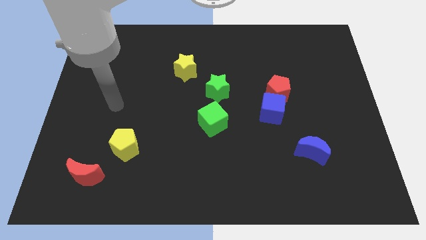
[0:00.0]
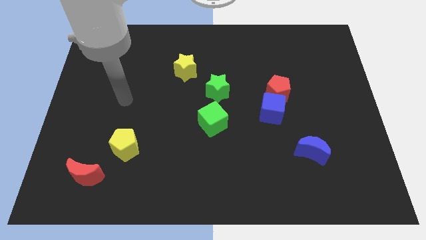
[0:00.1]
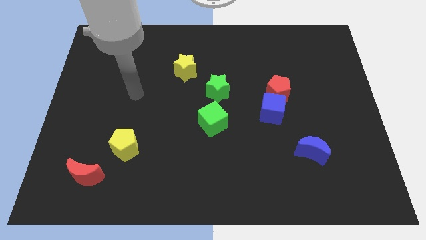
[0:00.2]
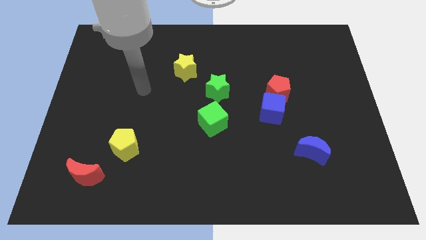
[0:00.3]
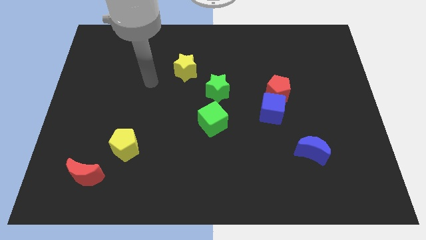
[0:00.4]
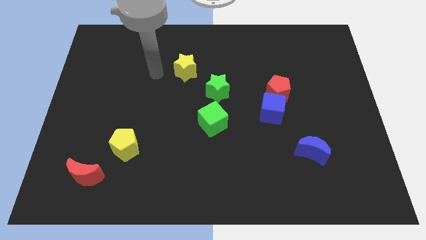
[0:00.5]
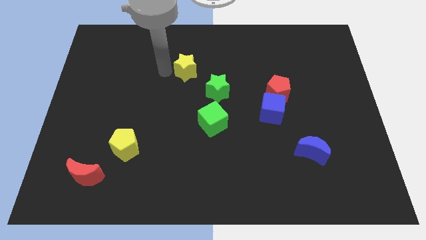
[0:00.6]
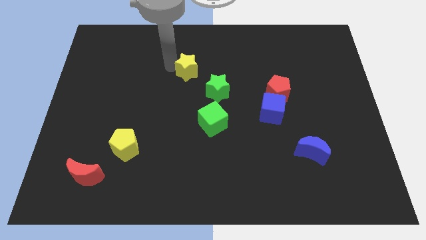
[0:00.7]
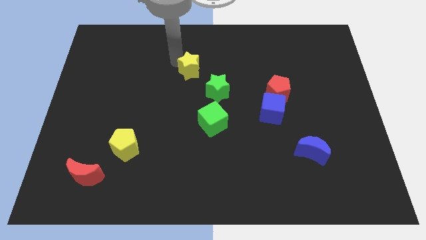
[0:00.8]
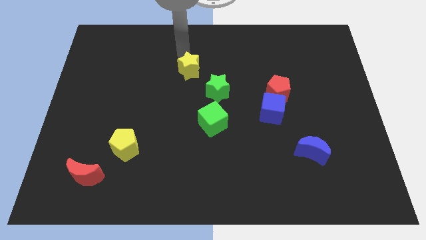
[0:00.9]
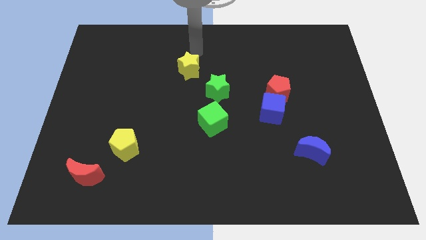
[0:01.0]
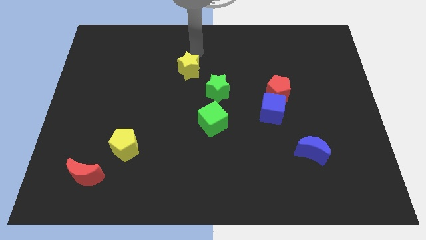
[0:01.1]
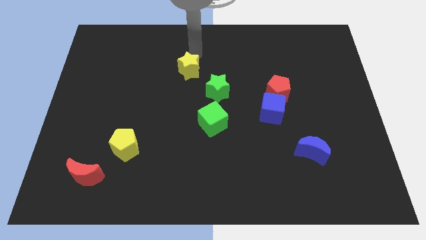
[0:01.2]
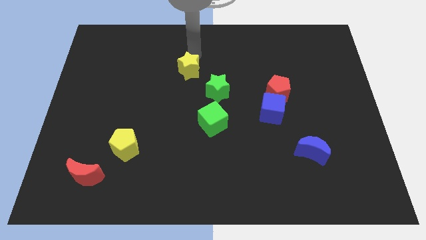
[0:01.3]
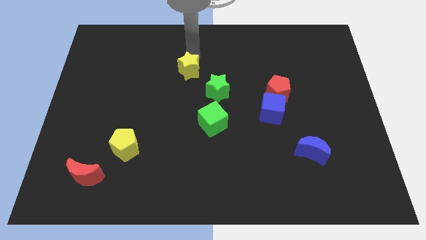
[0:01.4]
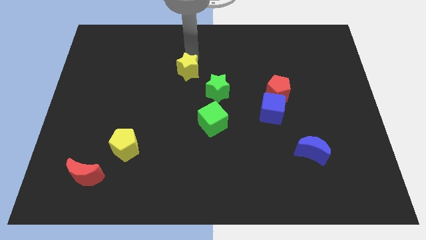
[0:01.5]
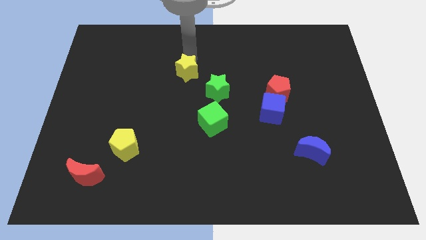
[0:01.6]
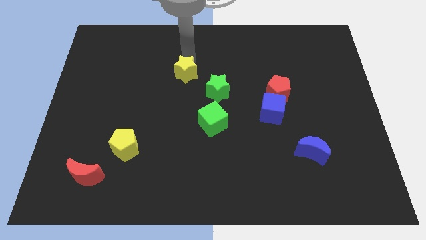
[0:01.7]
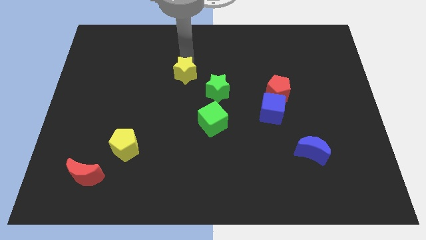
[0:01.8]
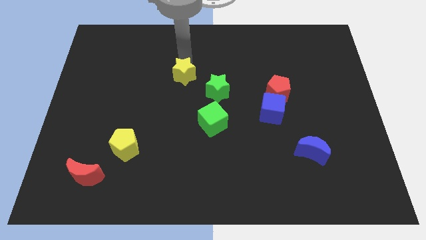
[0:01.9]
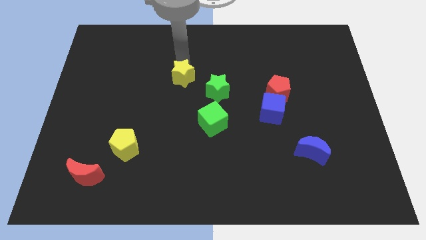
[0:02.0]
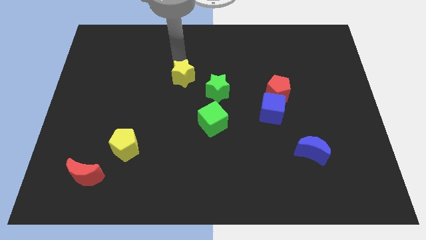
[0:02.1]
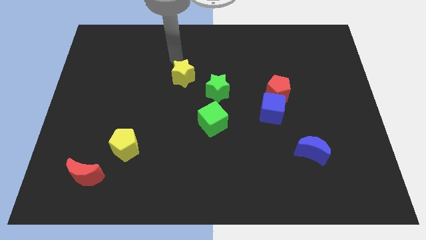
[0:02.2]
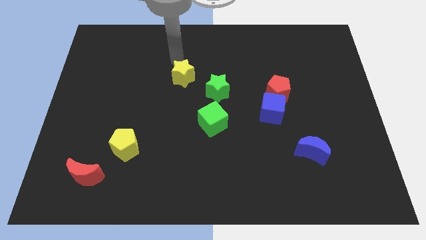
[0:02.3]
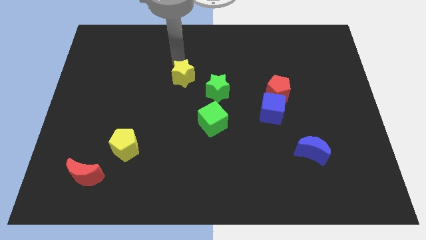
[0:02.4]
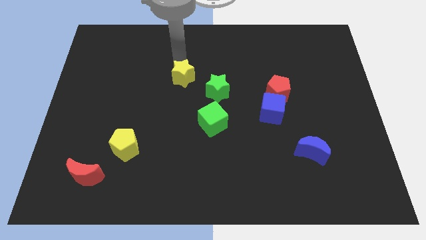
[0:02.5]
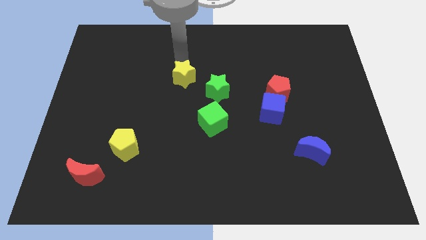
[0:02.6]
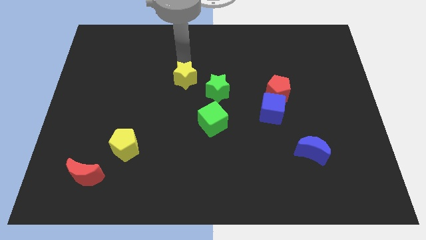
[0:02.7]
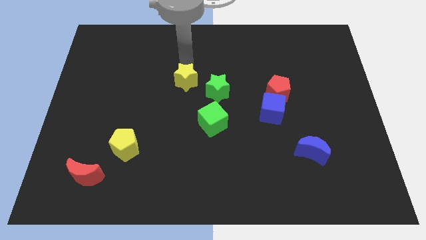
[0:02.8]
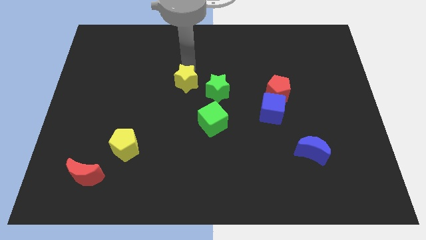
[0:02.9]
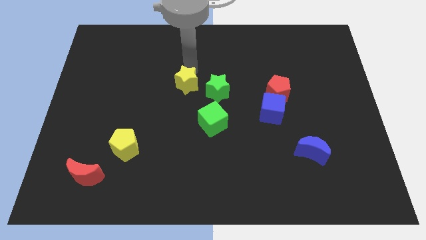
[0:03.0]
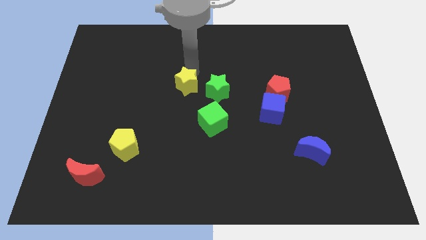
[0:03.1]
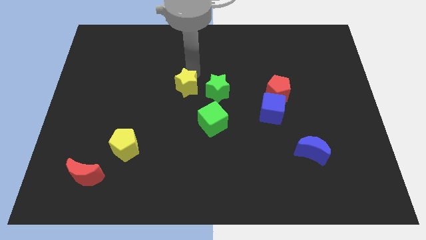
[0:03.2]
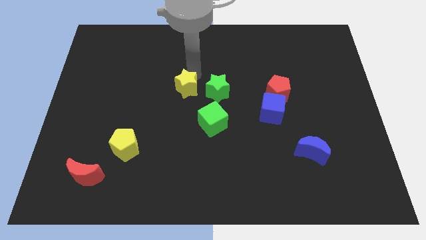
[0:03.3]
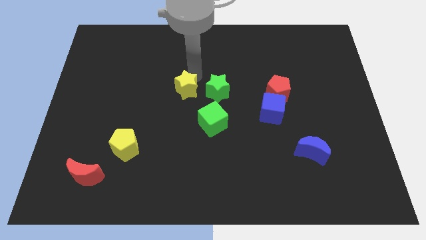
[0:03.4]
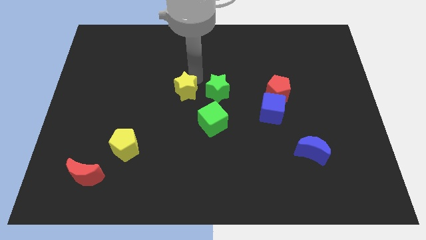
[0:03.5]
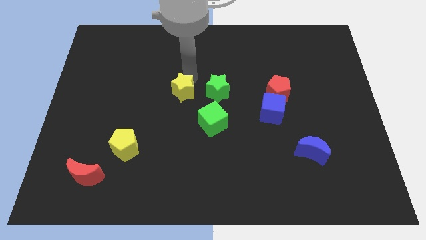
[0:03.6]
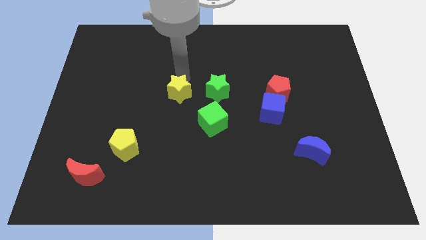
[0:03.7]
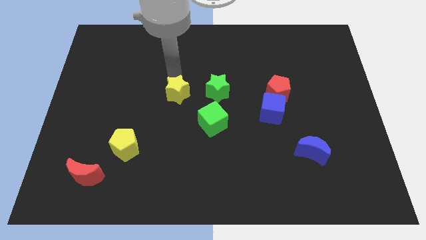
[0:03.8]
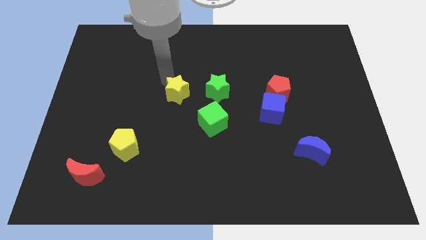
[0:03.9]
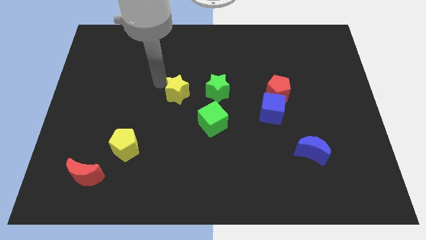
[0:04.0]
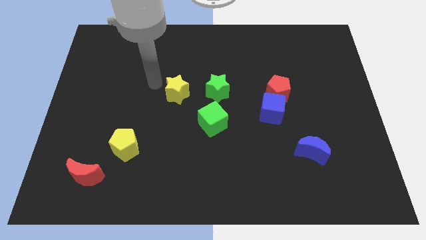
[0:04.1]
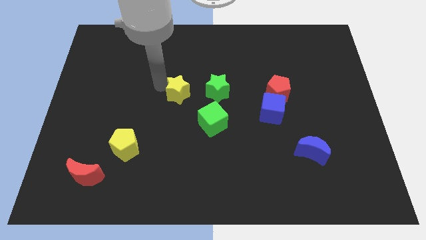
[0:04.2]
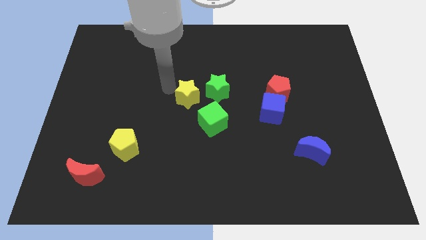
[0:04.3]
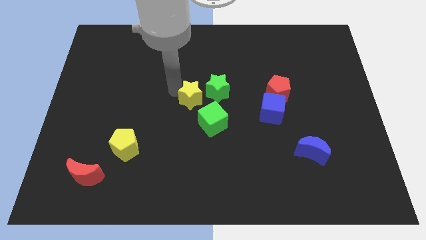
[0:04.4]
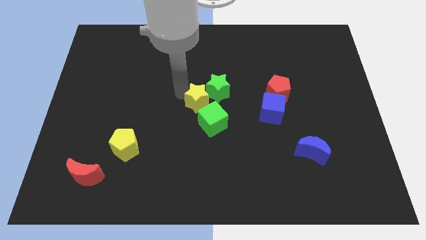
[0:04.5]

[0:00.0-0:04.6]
slide the yellow star downwards and to the right a little

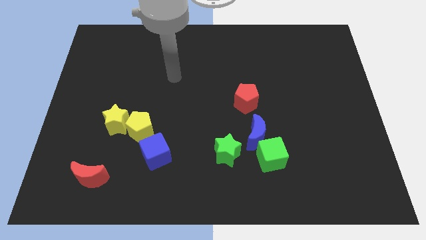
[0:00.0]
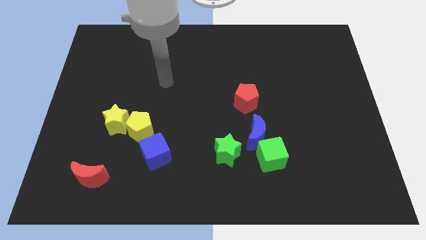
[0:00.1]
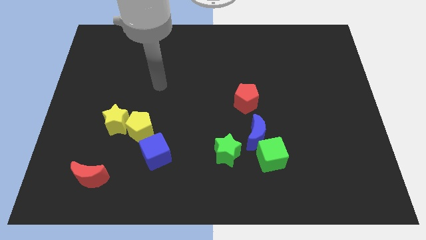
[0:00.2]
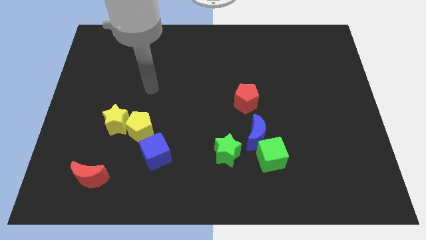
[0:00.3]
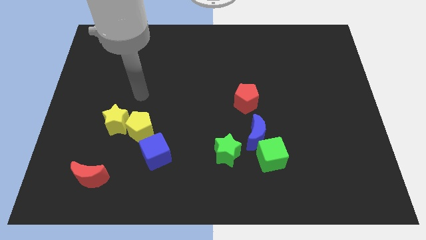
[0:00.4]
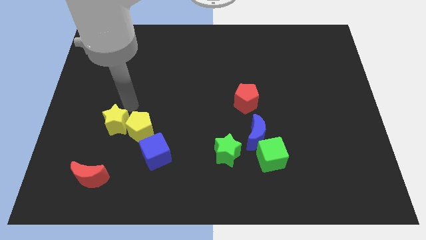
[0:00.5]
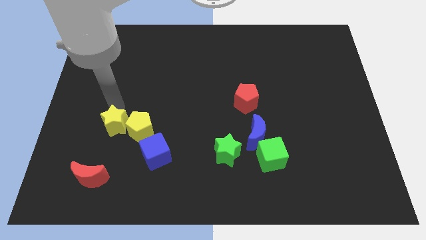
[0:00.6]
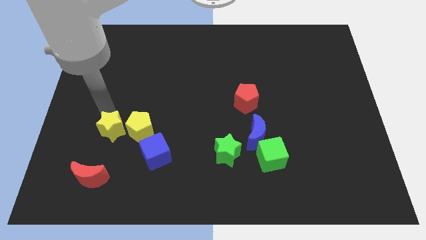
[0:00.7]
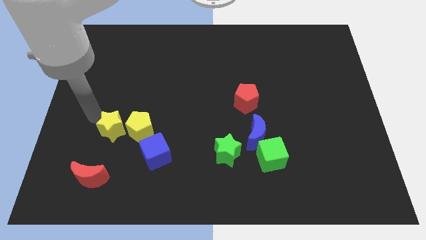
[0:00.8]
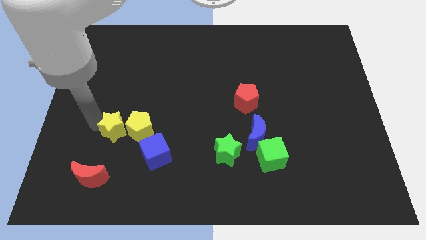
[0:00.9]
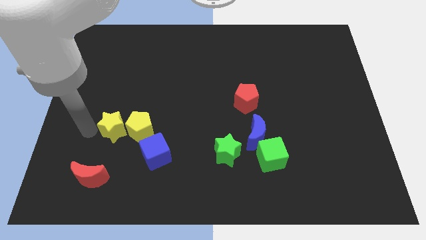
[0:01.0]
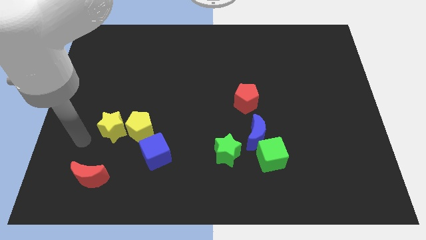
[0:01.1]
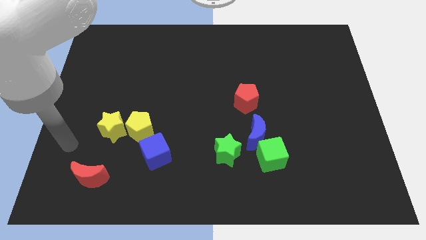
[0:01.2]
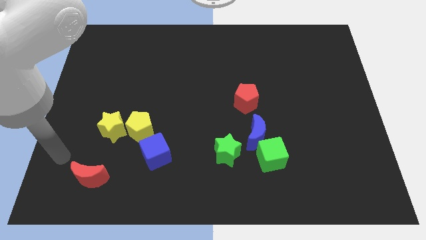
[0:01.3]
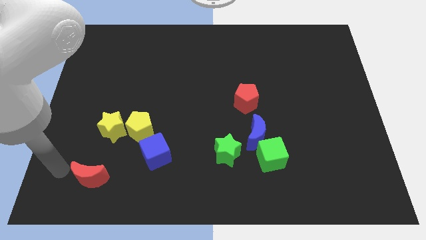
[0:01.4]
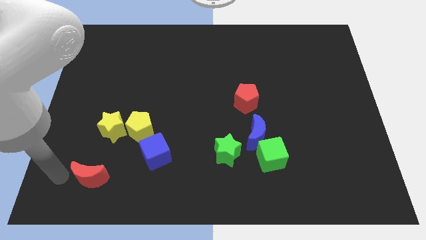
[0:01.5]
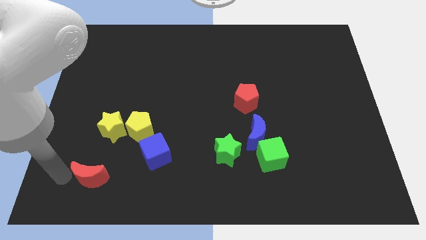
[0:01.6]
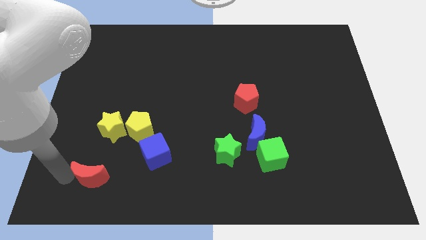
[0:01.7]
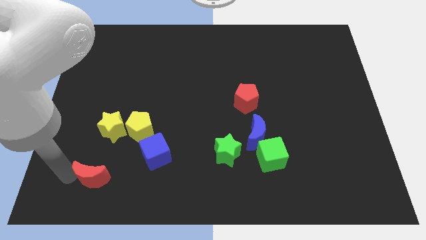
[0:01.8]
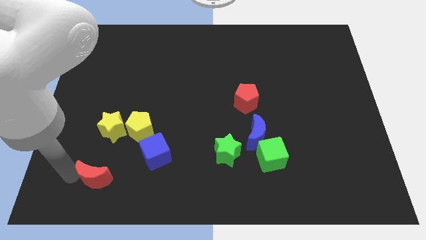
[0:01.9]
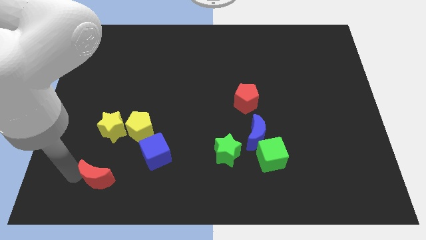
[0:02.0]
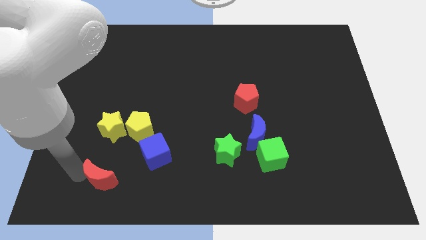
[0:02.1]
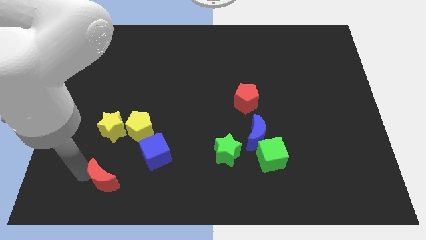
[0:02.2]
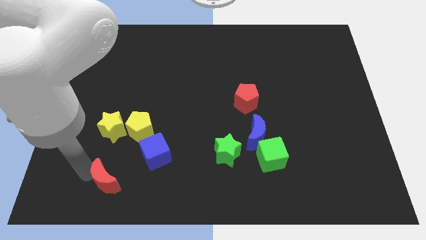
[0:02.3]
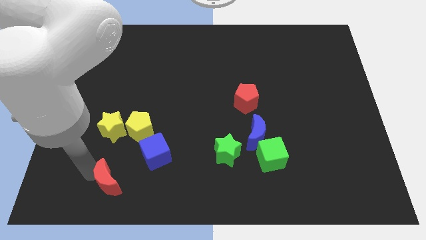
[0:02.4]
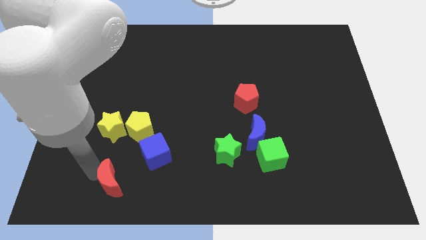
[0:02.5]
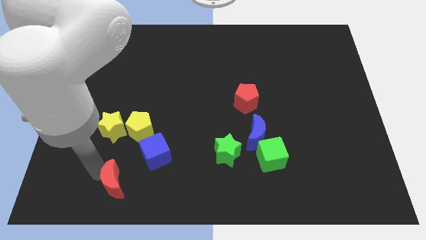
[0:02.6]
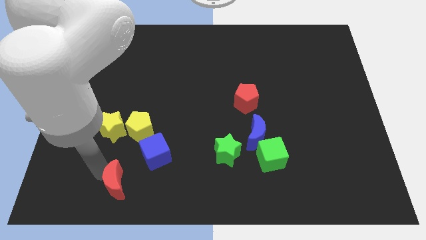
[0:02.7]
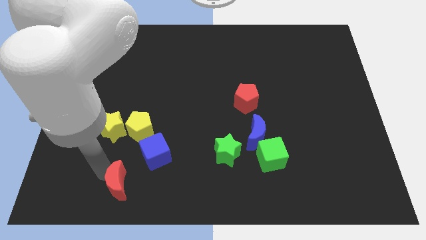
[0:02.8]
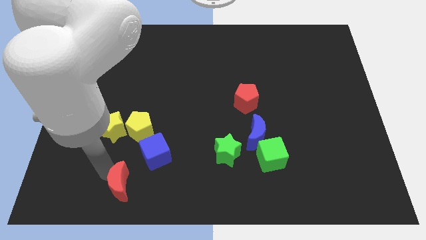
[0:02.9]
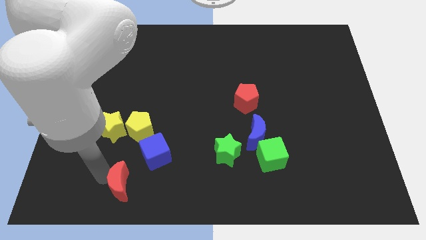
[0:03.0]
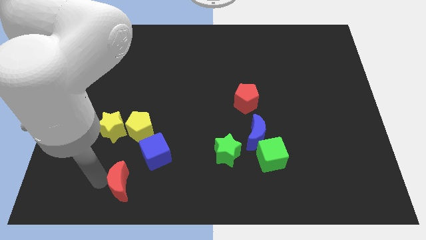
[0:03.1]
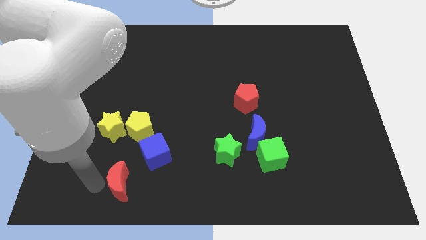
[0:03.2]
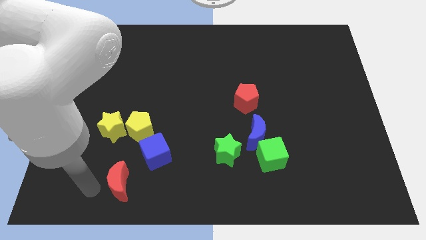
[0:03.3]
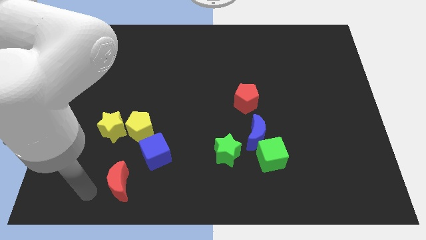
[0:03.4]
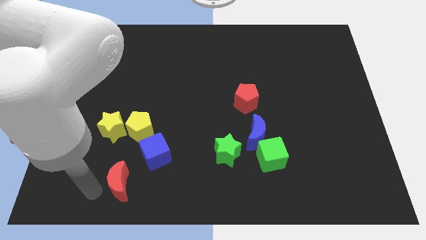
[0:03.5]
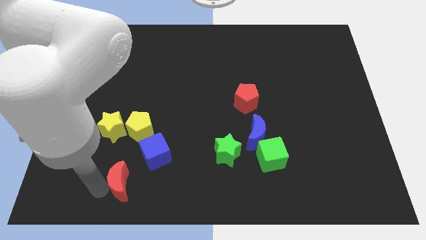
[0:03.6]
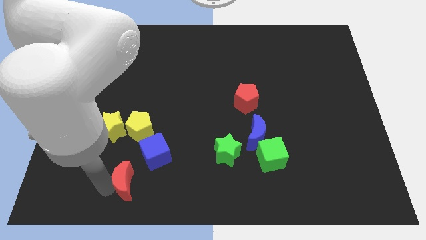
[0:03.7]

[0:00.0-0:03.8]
slightly slide the red moon right
